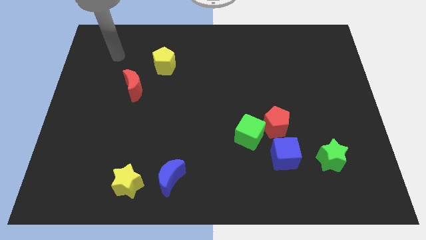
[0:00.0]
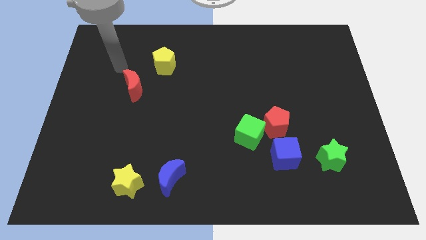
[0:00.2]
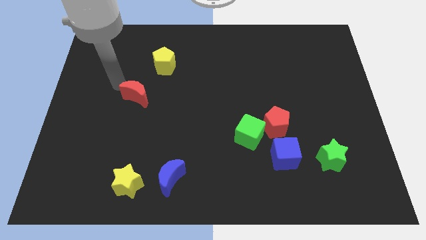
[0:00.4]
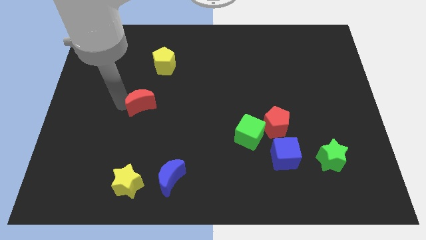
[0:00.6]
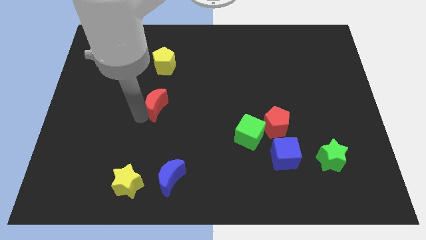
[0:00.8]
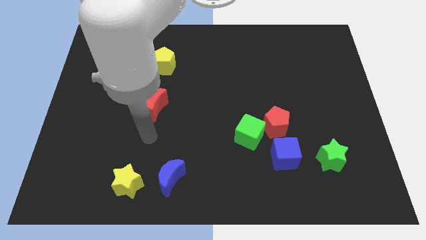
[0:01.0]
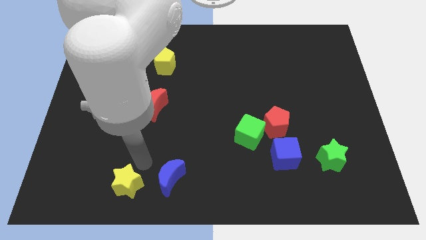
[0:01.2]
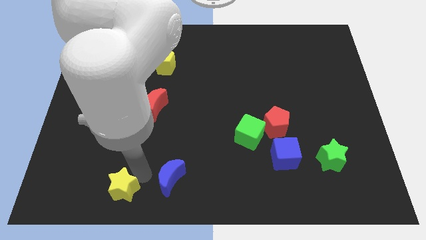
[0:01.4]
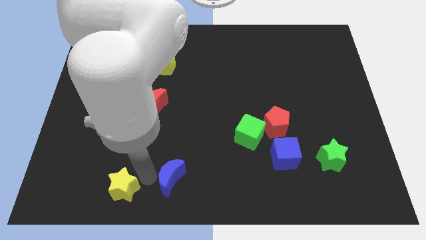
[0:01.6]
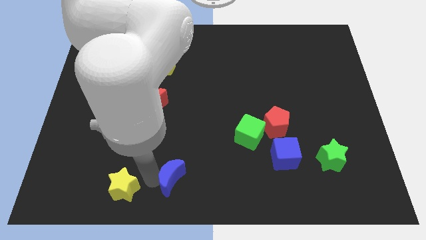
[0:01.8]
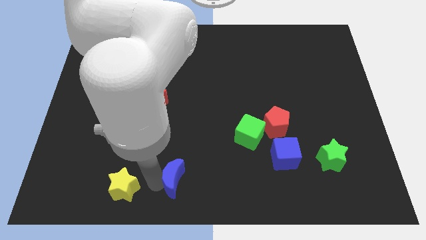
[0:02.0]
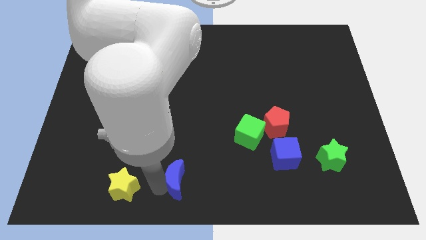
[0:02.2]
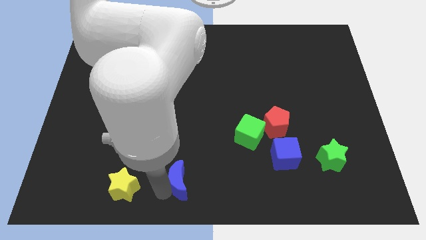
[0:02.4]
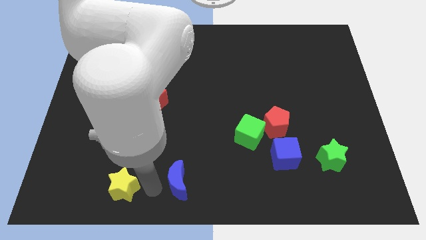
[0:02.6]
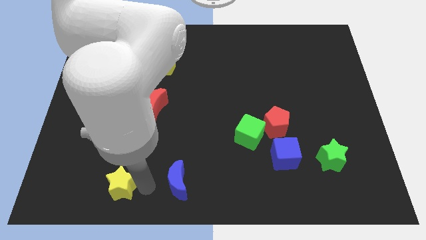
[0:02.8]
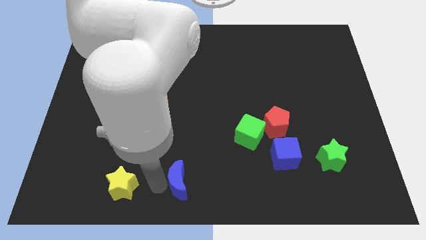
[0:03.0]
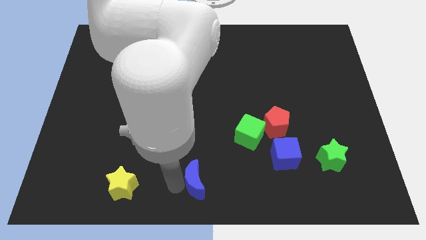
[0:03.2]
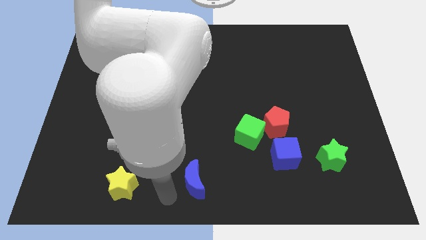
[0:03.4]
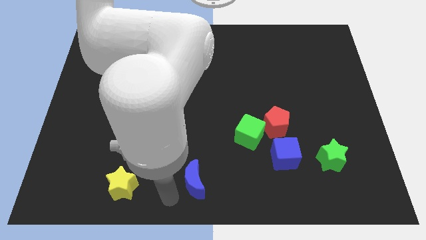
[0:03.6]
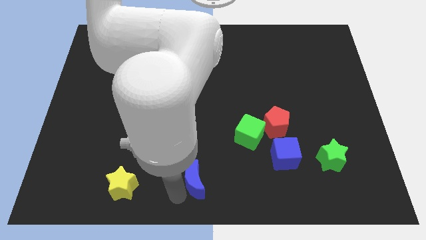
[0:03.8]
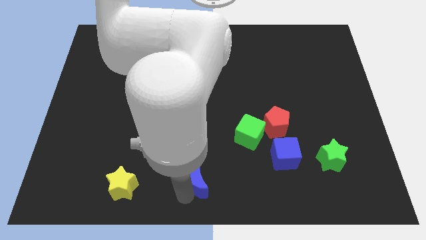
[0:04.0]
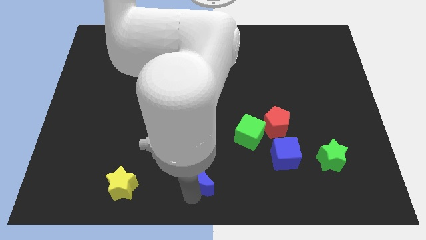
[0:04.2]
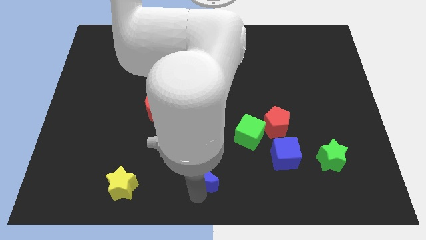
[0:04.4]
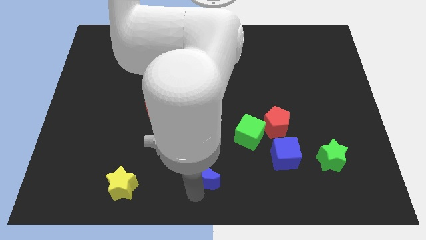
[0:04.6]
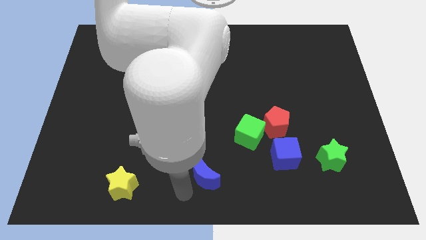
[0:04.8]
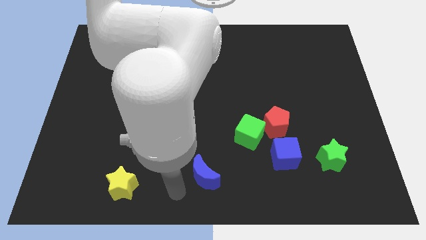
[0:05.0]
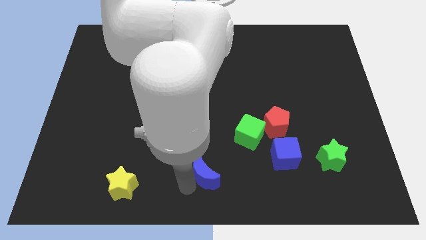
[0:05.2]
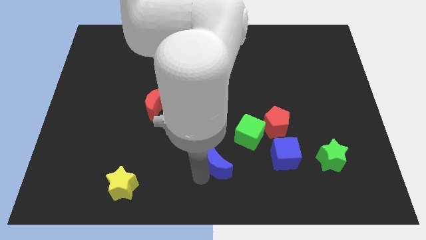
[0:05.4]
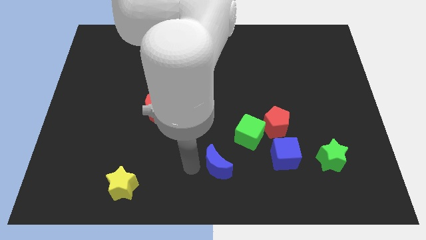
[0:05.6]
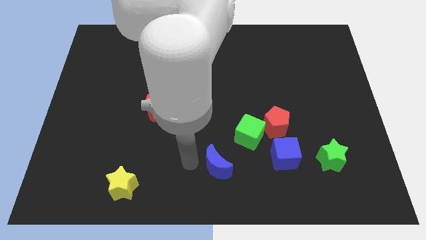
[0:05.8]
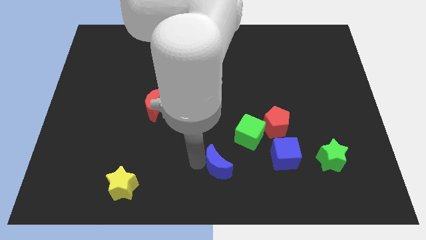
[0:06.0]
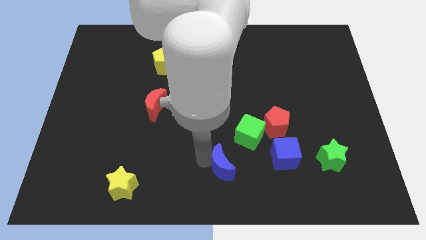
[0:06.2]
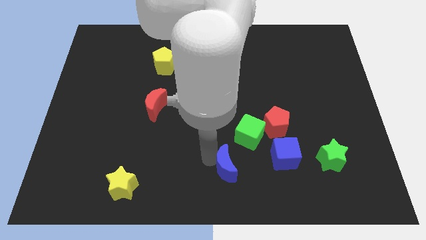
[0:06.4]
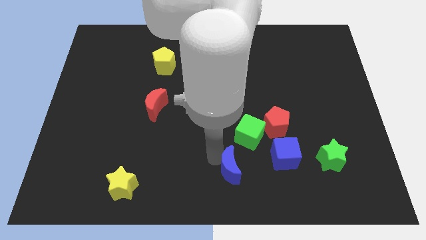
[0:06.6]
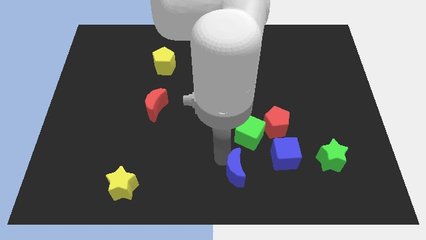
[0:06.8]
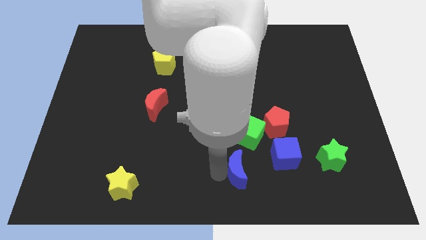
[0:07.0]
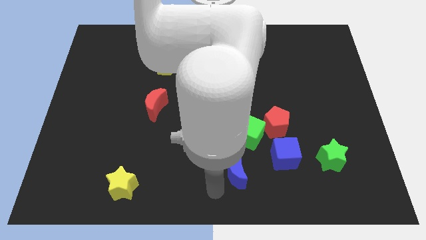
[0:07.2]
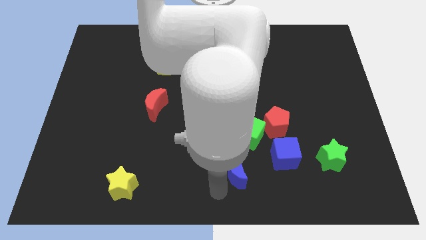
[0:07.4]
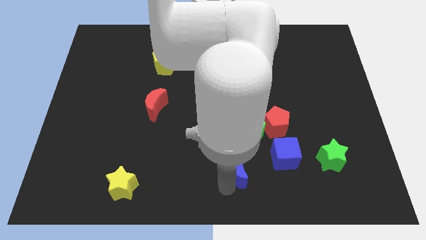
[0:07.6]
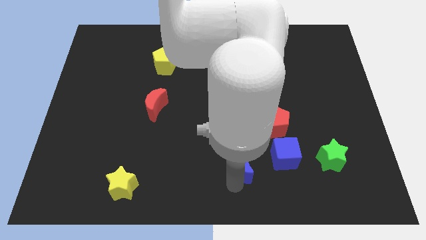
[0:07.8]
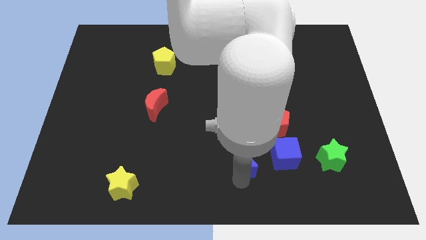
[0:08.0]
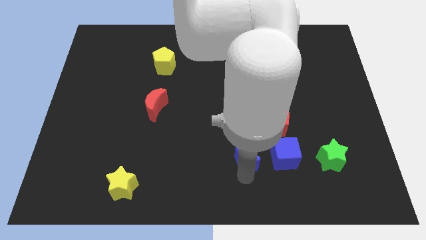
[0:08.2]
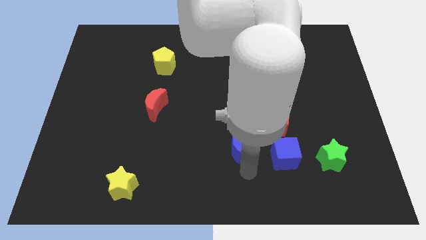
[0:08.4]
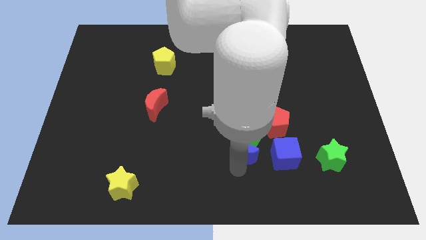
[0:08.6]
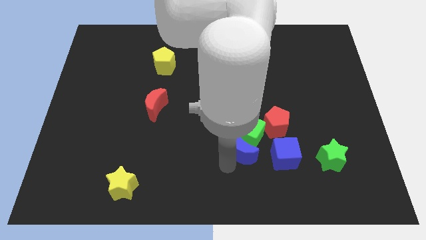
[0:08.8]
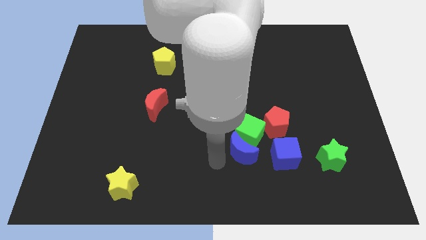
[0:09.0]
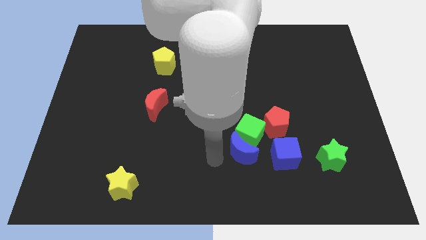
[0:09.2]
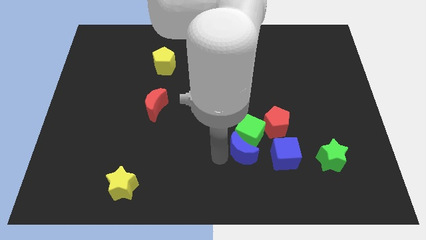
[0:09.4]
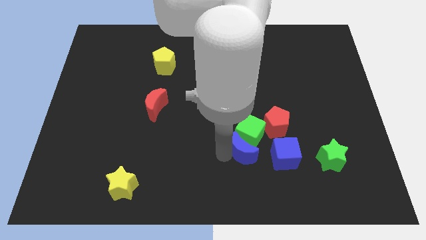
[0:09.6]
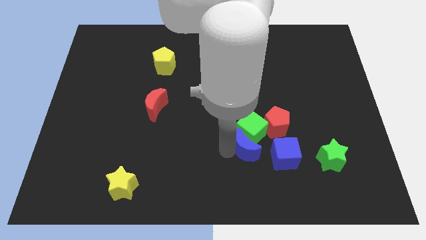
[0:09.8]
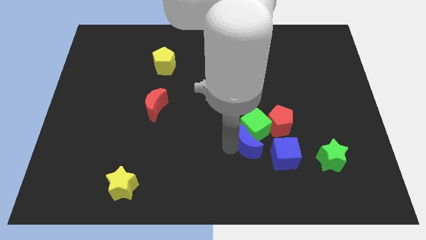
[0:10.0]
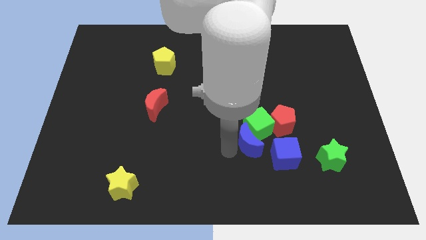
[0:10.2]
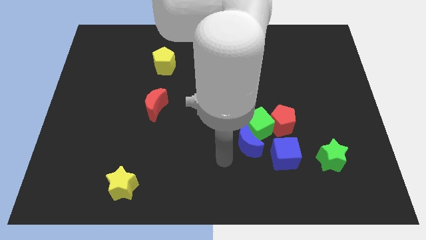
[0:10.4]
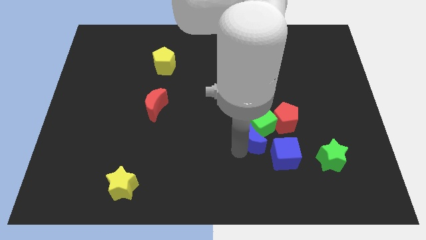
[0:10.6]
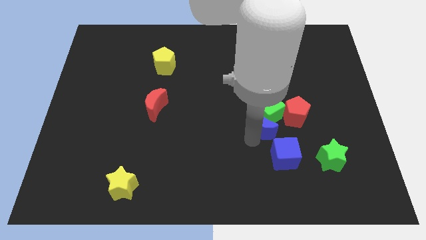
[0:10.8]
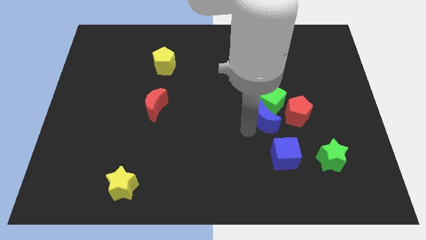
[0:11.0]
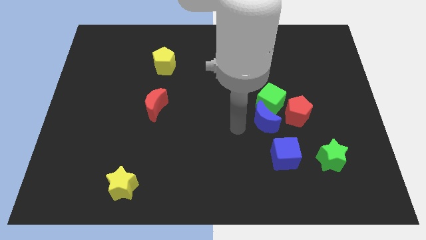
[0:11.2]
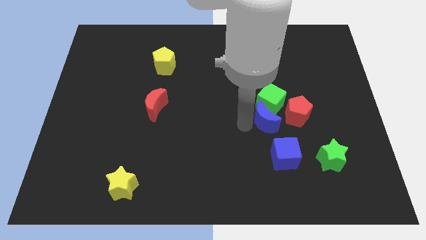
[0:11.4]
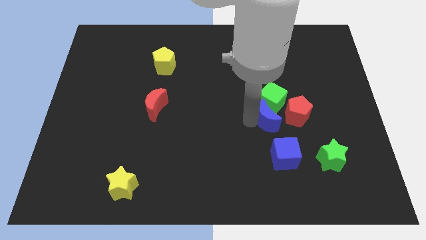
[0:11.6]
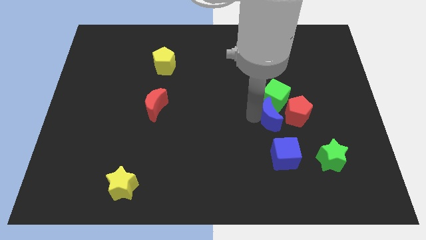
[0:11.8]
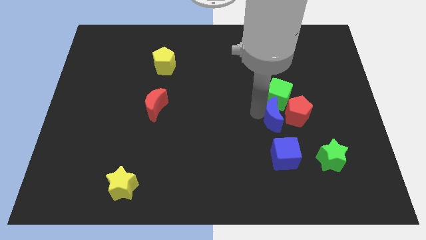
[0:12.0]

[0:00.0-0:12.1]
push the blue moon close to the red pentagon

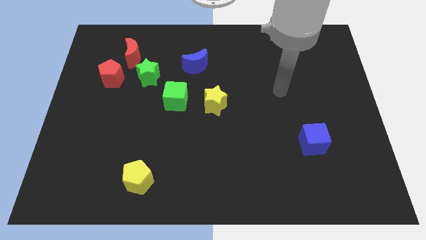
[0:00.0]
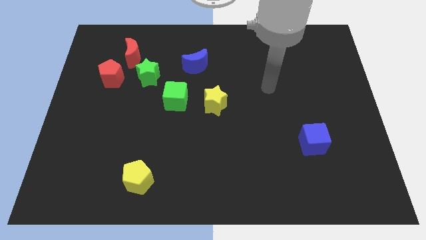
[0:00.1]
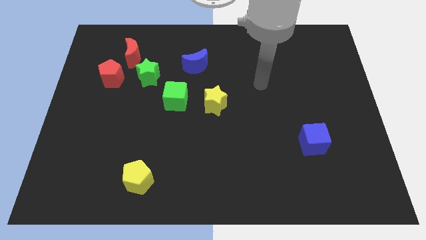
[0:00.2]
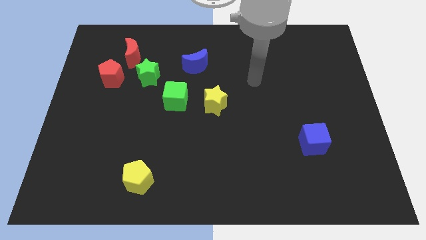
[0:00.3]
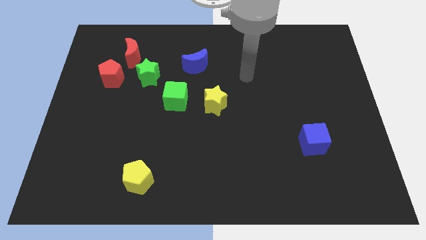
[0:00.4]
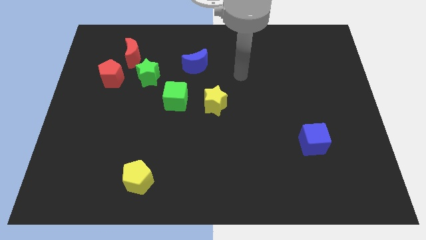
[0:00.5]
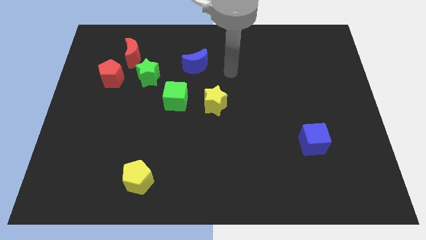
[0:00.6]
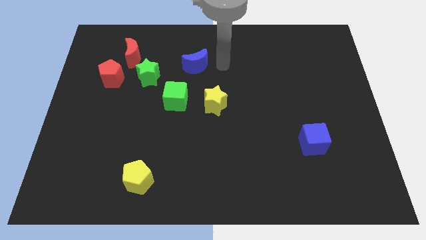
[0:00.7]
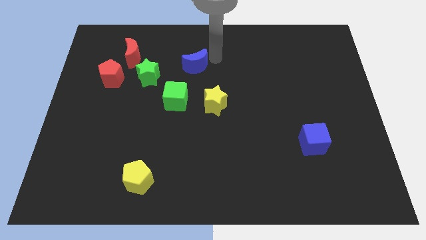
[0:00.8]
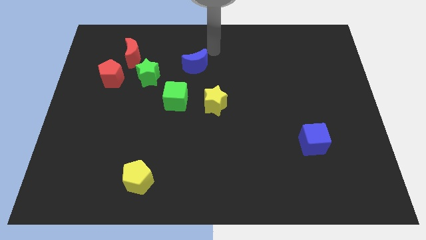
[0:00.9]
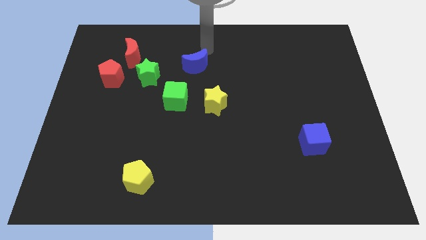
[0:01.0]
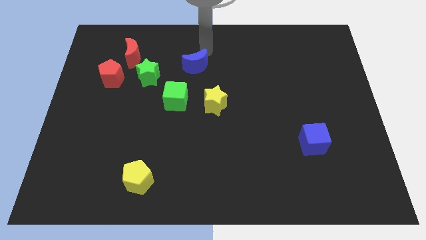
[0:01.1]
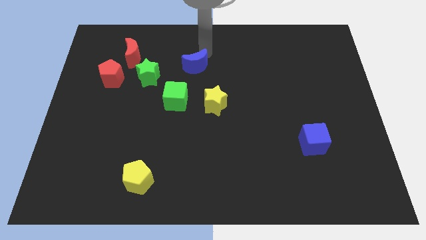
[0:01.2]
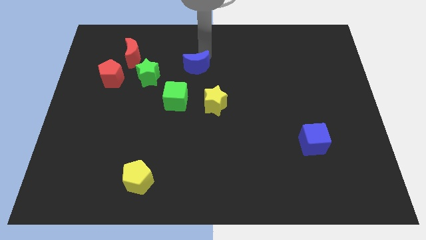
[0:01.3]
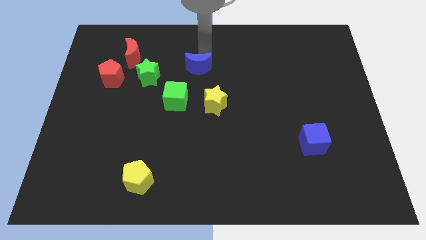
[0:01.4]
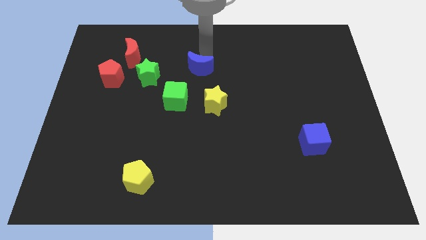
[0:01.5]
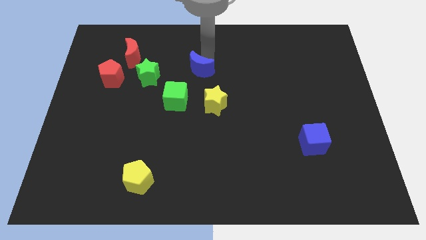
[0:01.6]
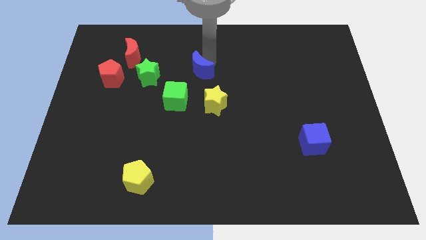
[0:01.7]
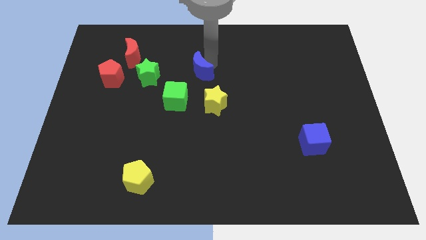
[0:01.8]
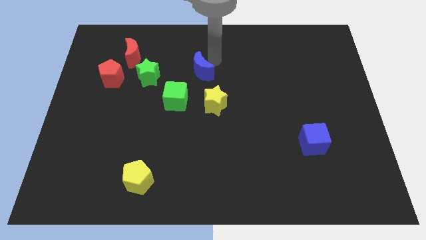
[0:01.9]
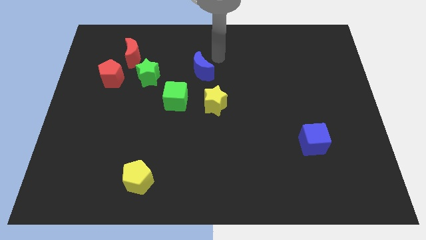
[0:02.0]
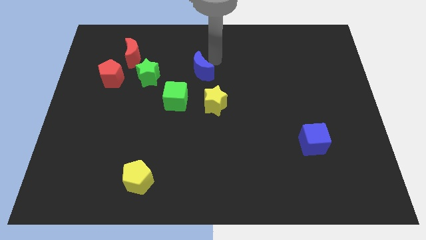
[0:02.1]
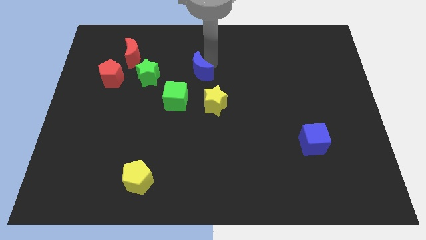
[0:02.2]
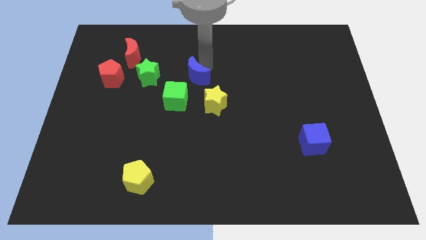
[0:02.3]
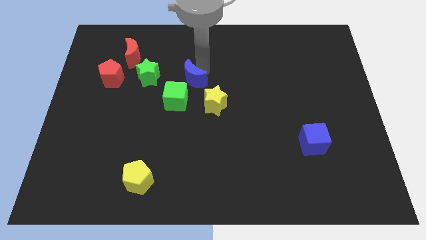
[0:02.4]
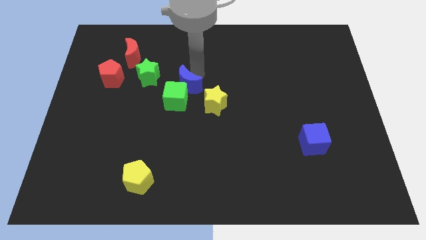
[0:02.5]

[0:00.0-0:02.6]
put the blue moon close to the green cube
